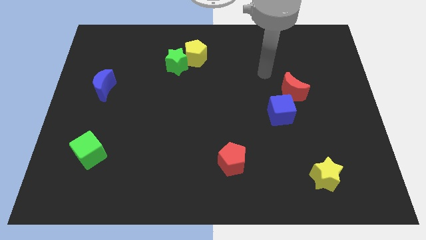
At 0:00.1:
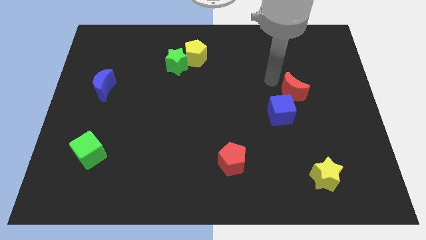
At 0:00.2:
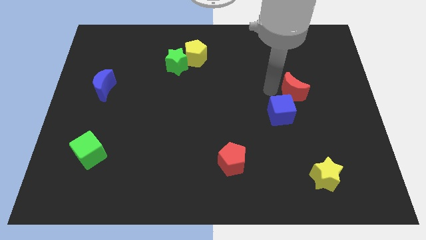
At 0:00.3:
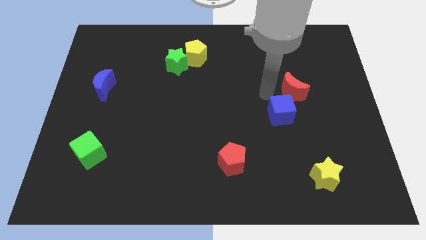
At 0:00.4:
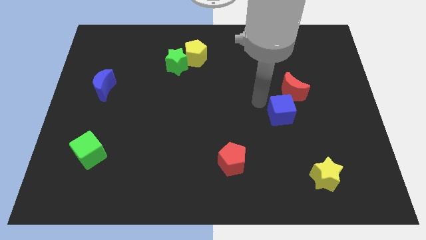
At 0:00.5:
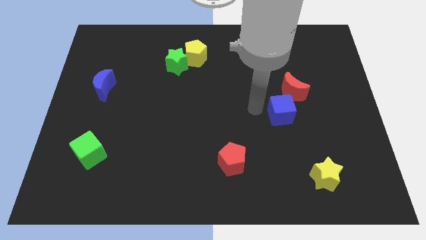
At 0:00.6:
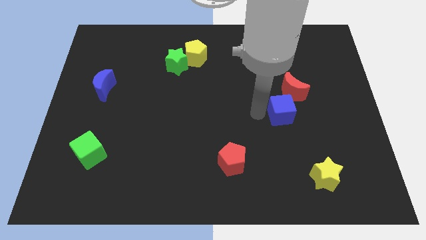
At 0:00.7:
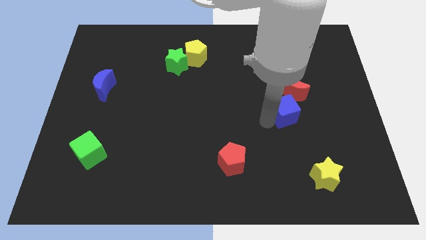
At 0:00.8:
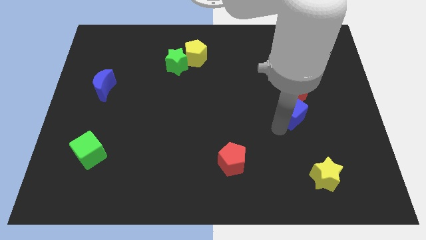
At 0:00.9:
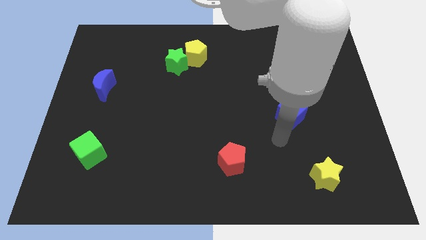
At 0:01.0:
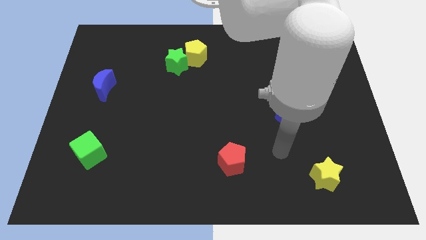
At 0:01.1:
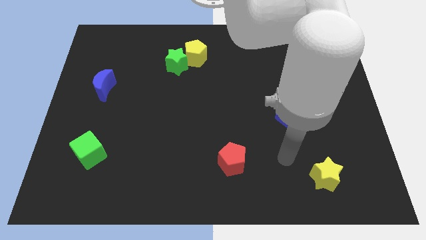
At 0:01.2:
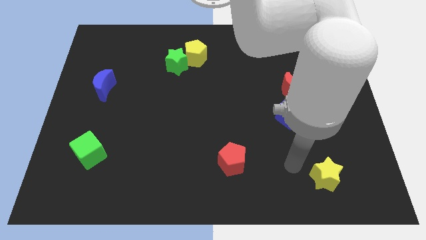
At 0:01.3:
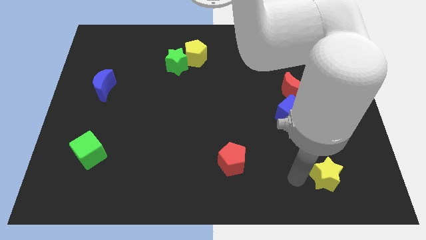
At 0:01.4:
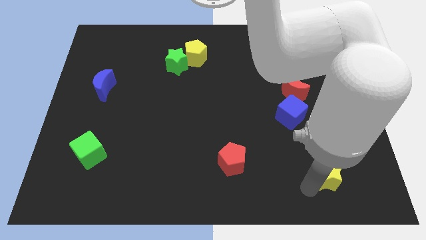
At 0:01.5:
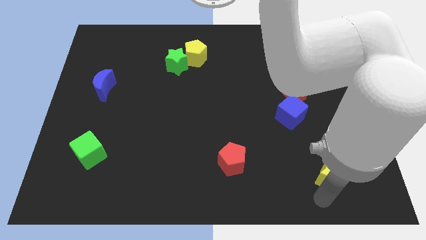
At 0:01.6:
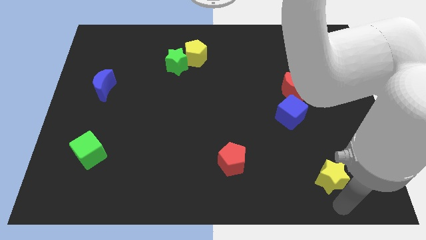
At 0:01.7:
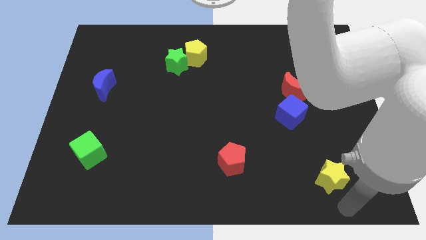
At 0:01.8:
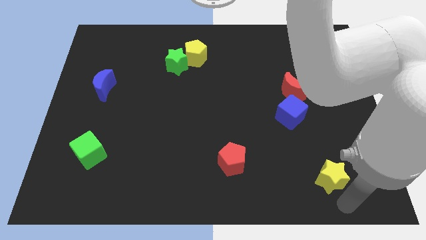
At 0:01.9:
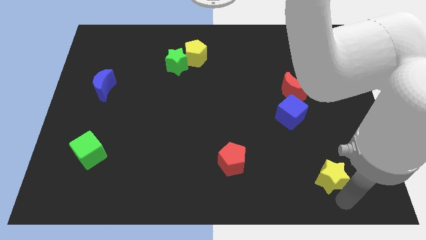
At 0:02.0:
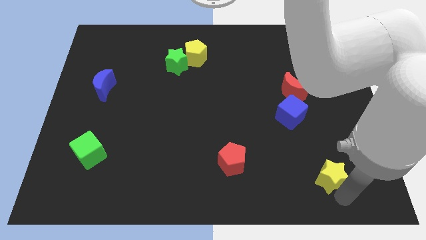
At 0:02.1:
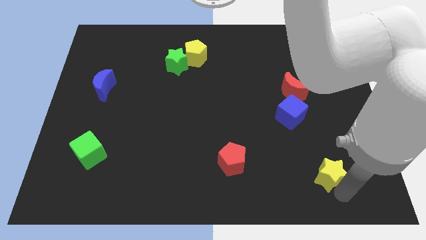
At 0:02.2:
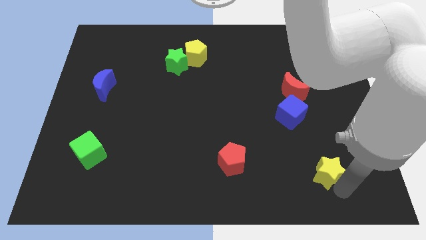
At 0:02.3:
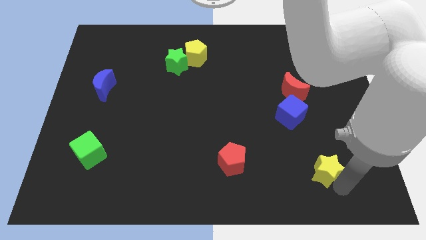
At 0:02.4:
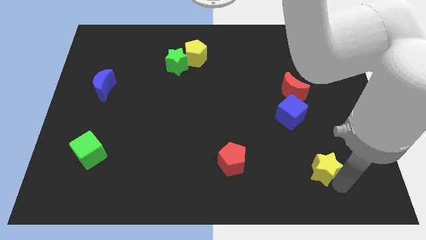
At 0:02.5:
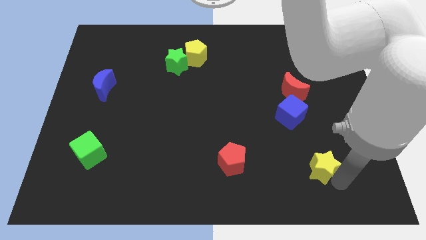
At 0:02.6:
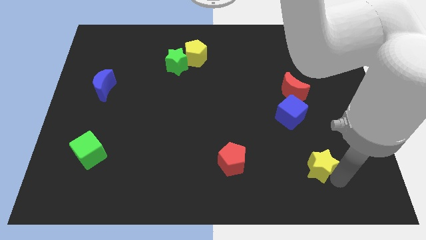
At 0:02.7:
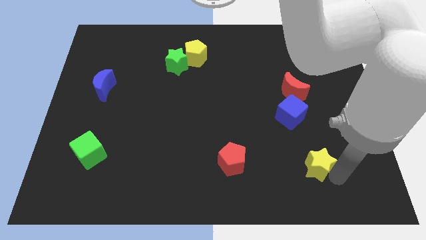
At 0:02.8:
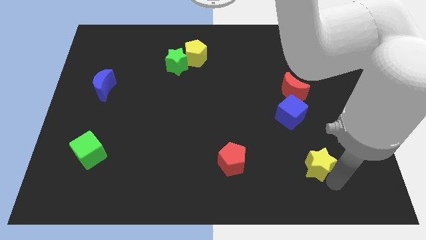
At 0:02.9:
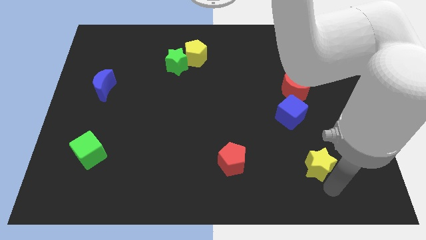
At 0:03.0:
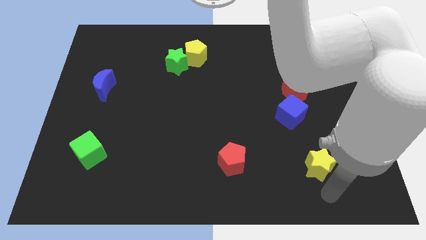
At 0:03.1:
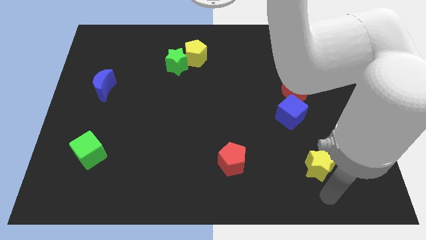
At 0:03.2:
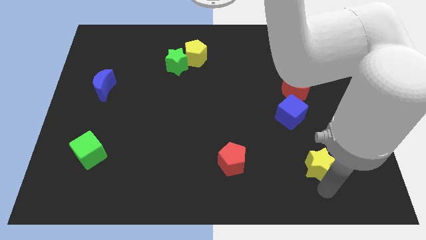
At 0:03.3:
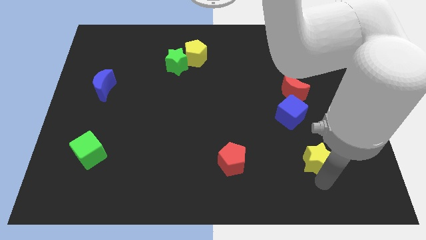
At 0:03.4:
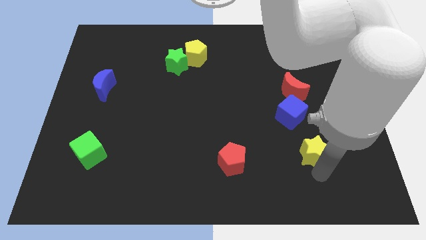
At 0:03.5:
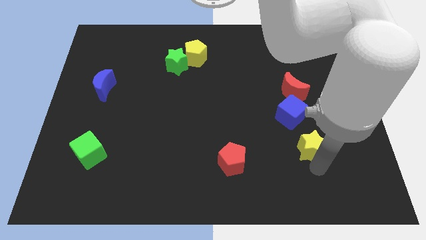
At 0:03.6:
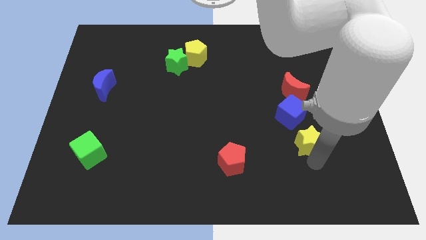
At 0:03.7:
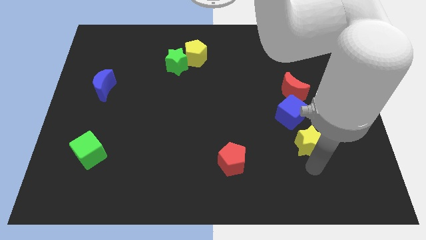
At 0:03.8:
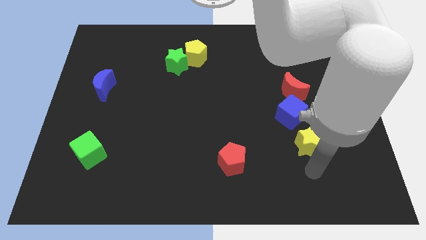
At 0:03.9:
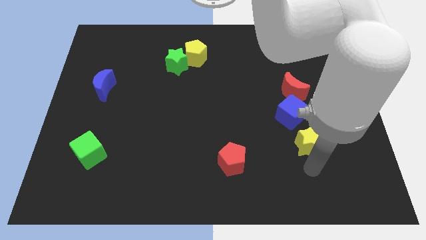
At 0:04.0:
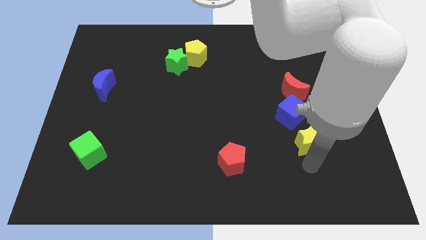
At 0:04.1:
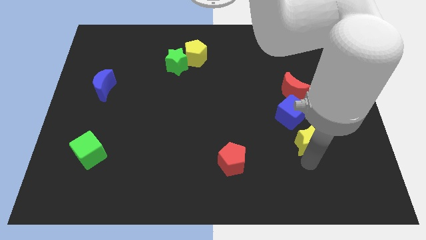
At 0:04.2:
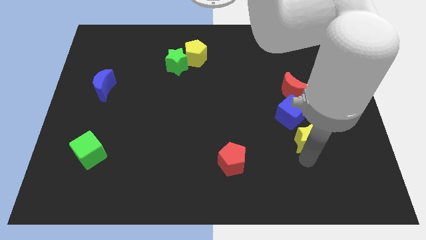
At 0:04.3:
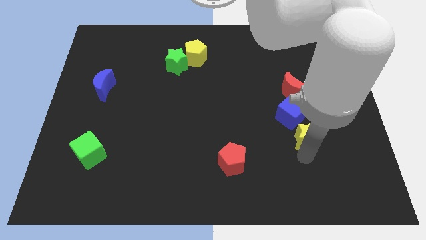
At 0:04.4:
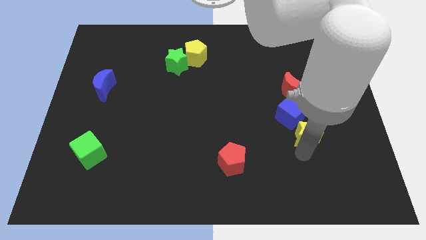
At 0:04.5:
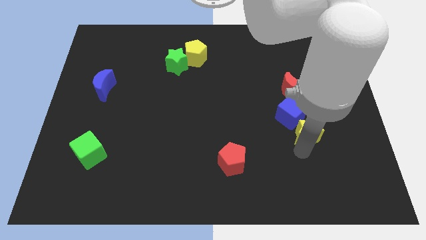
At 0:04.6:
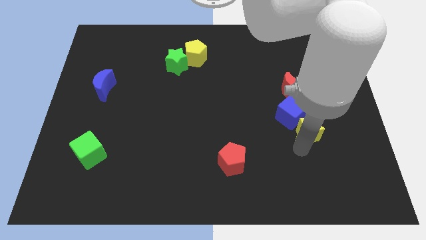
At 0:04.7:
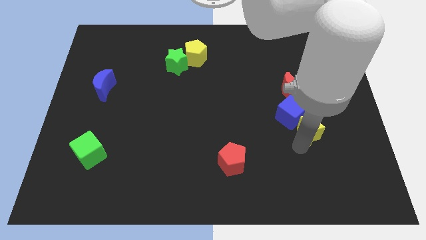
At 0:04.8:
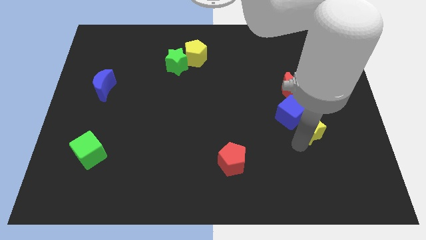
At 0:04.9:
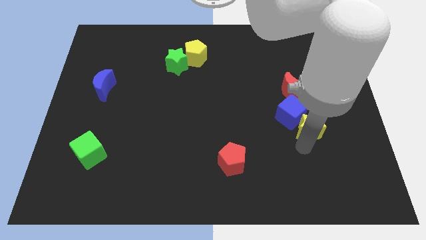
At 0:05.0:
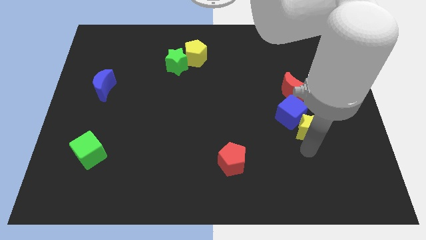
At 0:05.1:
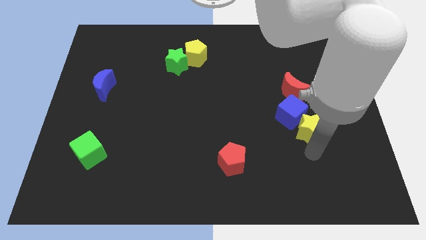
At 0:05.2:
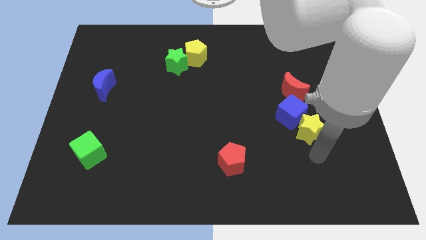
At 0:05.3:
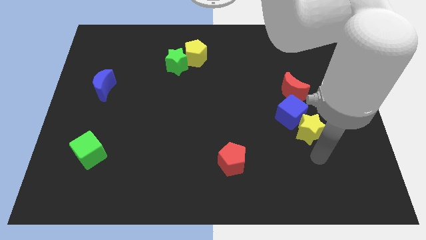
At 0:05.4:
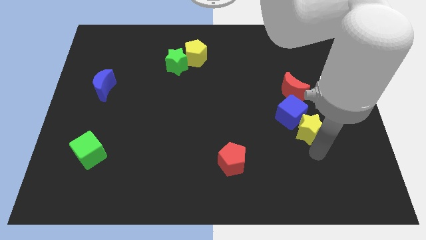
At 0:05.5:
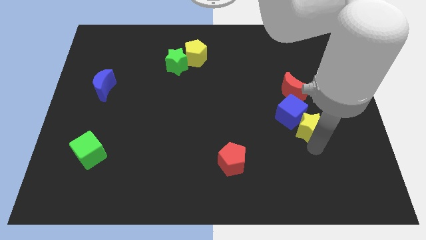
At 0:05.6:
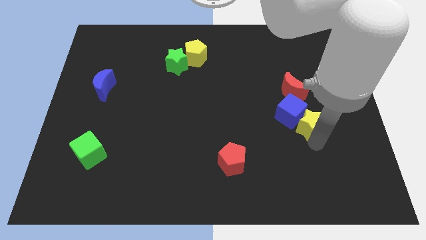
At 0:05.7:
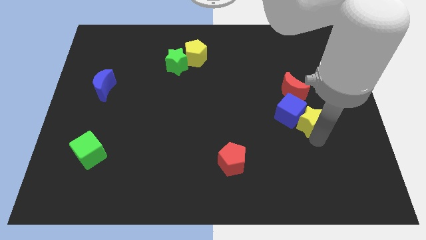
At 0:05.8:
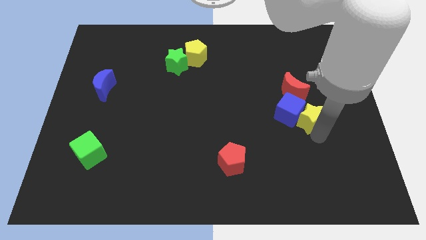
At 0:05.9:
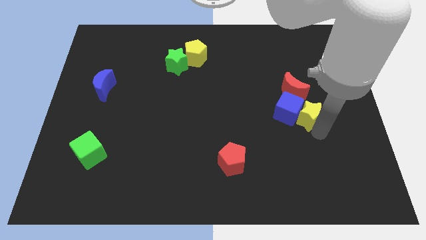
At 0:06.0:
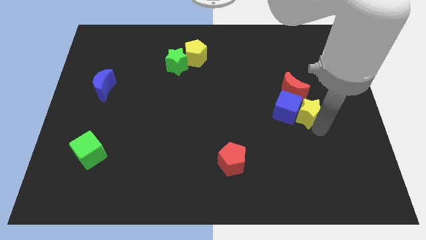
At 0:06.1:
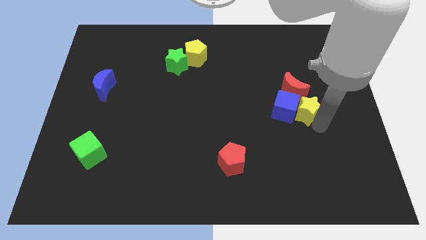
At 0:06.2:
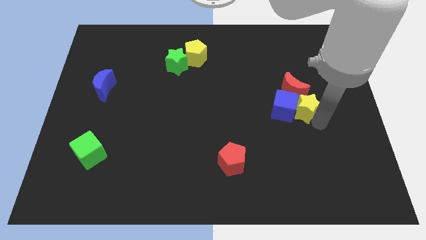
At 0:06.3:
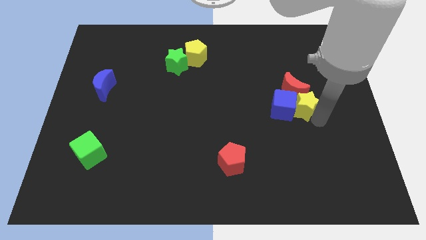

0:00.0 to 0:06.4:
move the yellow star close to the red moon
